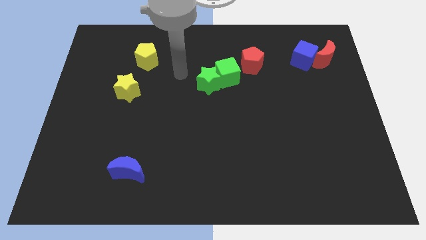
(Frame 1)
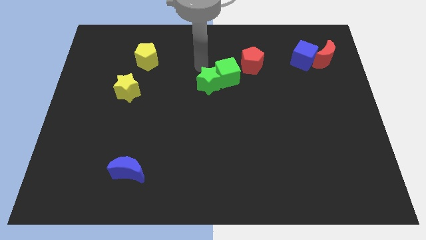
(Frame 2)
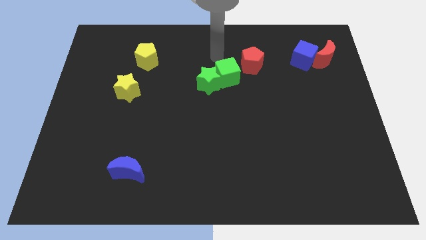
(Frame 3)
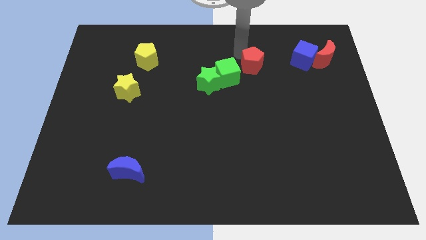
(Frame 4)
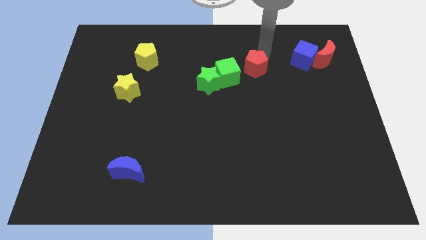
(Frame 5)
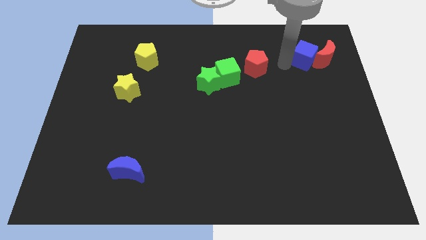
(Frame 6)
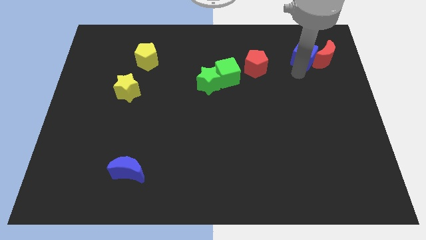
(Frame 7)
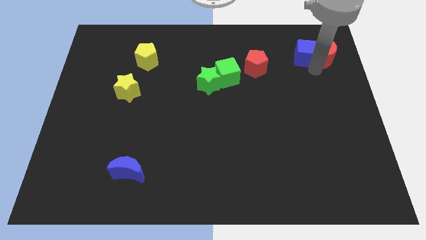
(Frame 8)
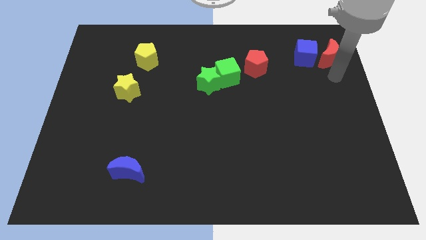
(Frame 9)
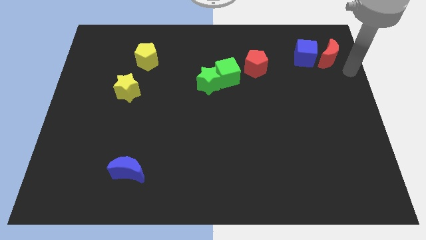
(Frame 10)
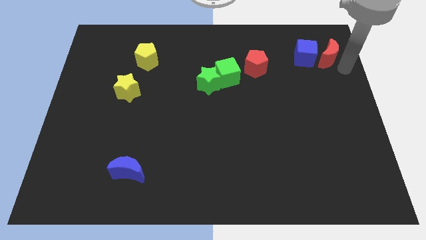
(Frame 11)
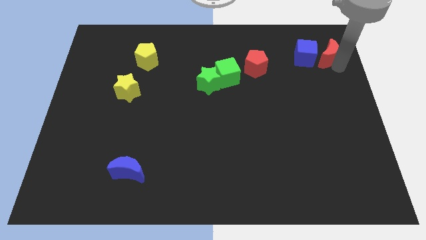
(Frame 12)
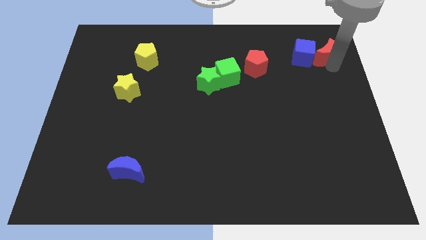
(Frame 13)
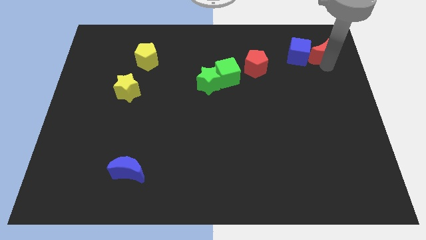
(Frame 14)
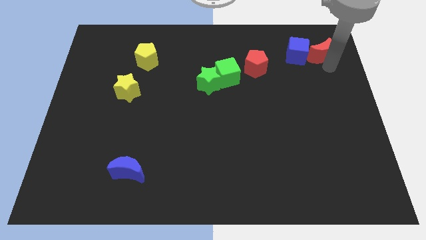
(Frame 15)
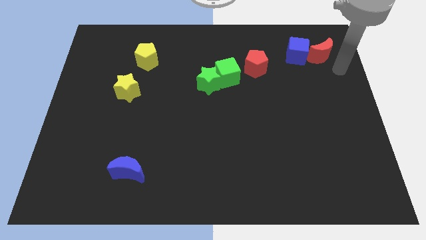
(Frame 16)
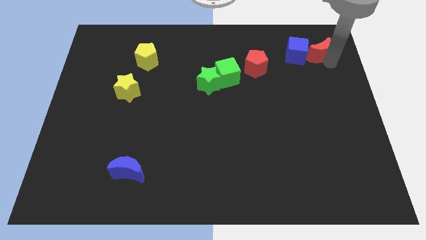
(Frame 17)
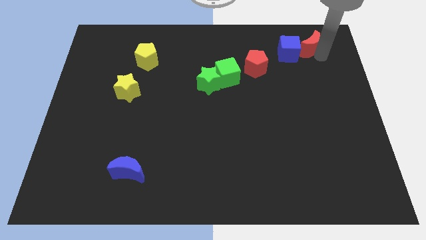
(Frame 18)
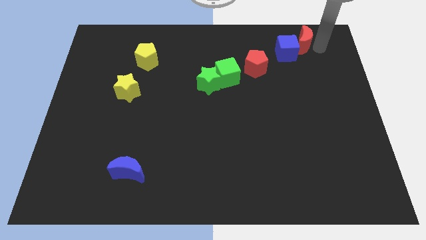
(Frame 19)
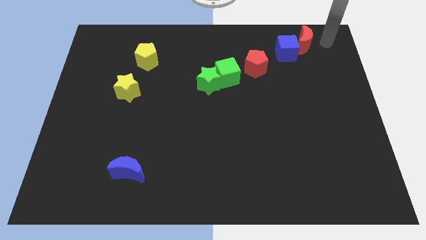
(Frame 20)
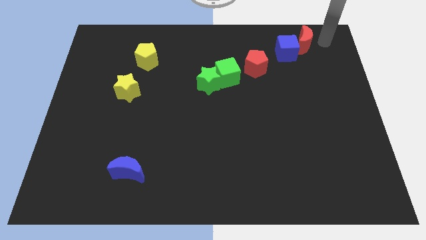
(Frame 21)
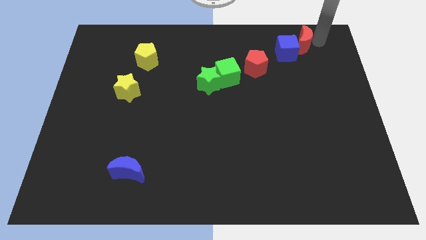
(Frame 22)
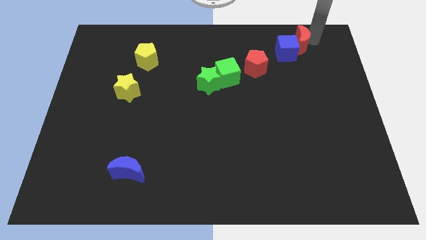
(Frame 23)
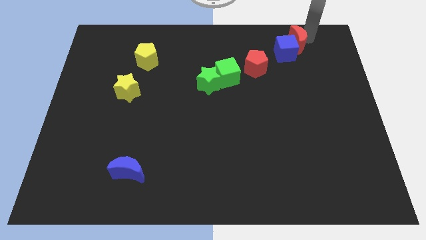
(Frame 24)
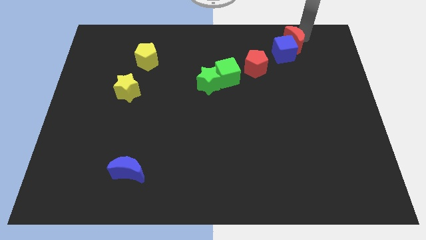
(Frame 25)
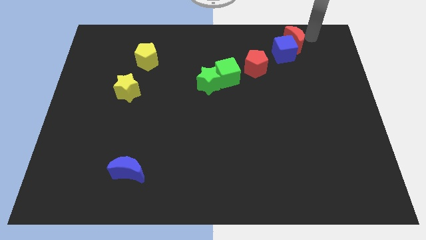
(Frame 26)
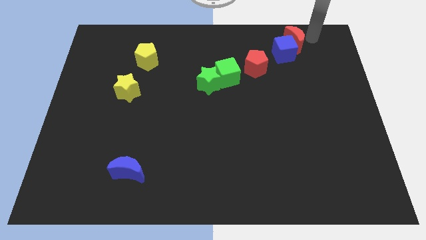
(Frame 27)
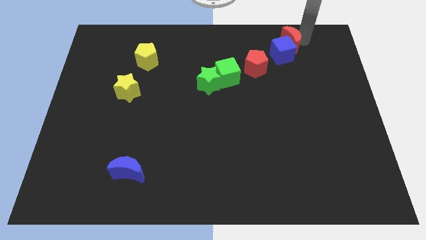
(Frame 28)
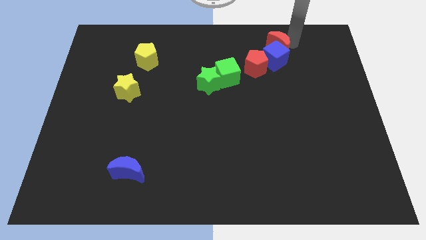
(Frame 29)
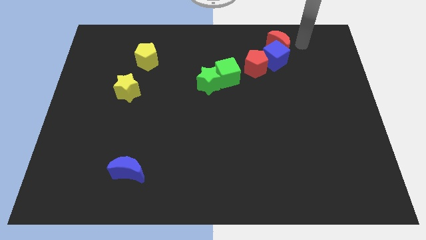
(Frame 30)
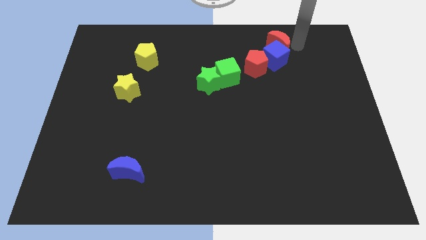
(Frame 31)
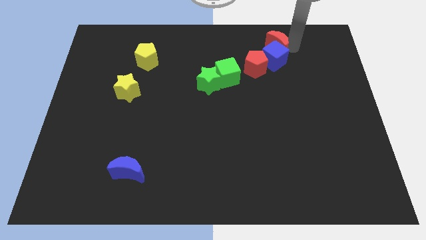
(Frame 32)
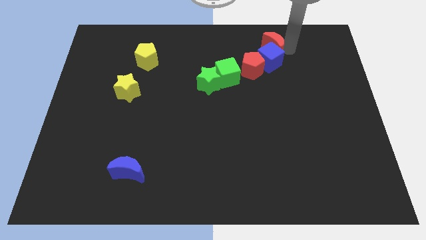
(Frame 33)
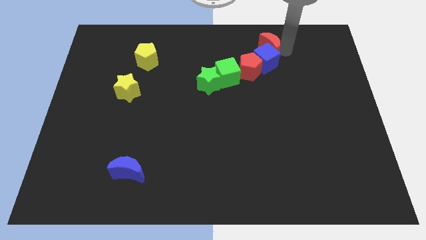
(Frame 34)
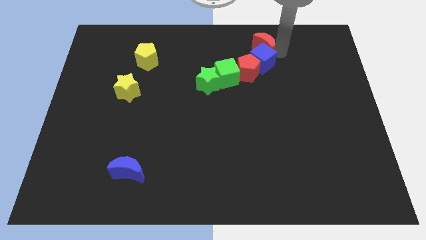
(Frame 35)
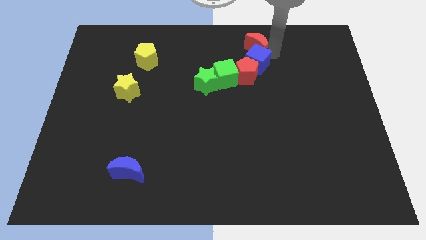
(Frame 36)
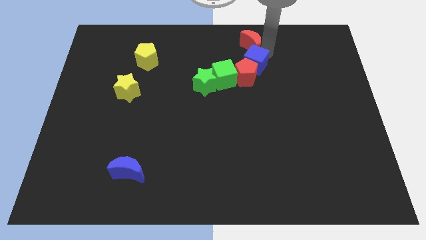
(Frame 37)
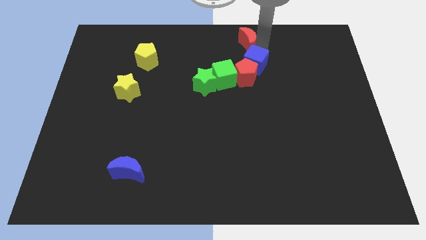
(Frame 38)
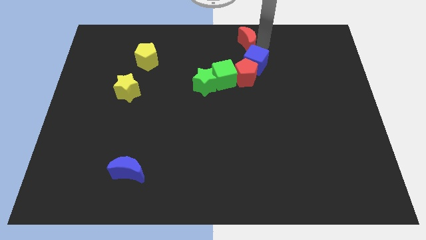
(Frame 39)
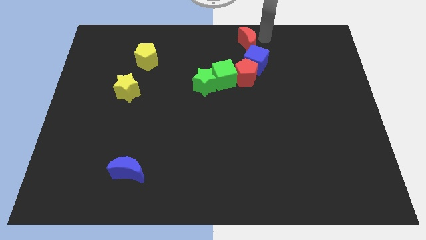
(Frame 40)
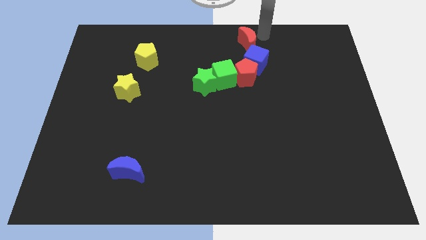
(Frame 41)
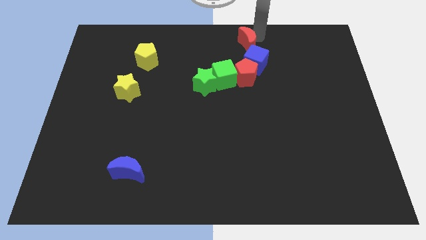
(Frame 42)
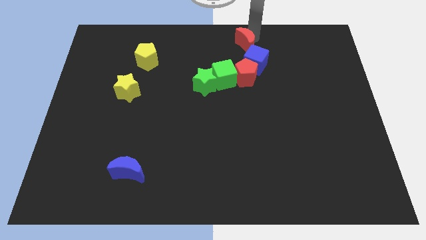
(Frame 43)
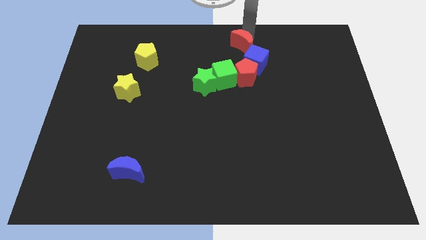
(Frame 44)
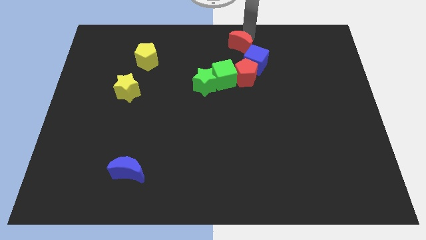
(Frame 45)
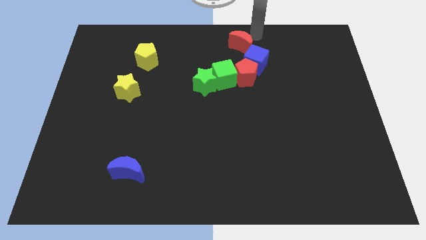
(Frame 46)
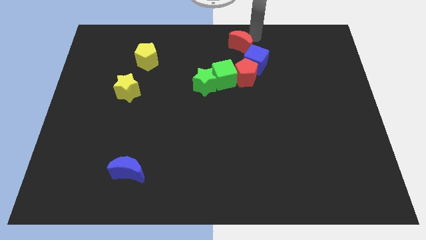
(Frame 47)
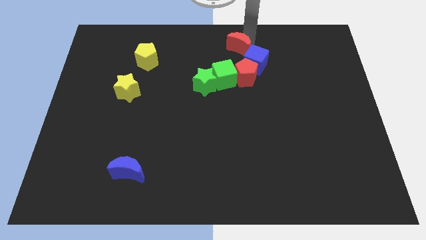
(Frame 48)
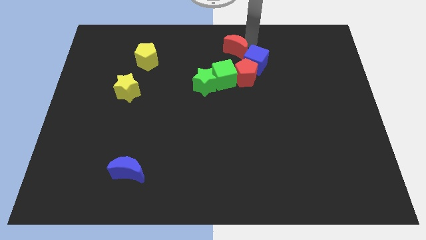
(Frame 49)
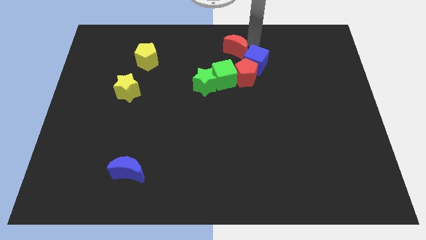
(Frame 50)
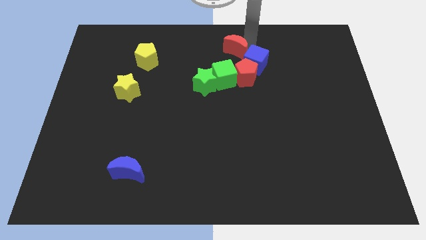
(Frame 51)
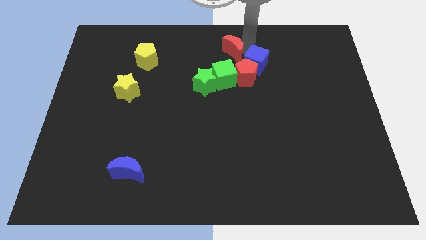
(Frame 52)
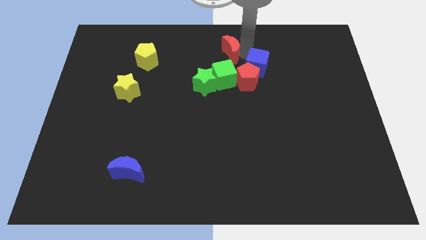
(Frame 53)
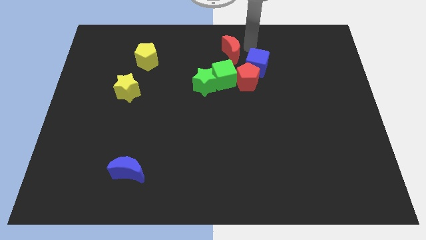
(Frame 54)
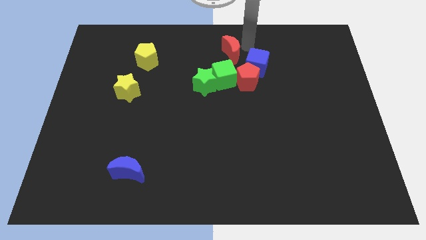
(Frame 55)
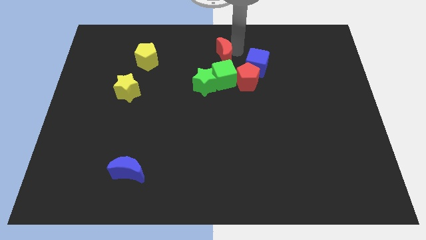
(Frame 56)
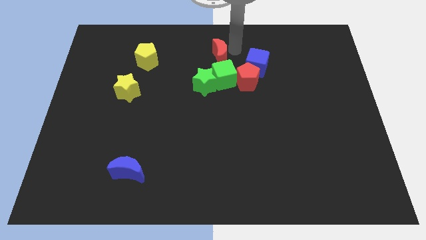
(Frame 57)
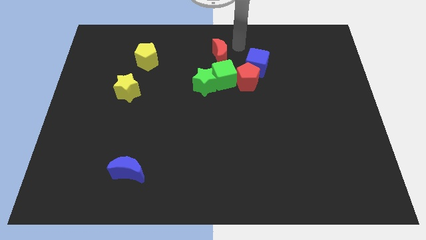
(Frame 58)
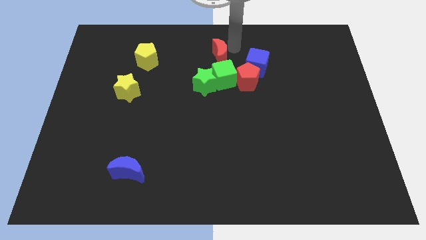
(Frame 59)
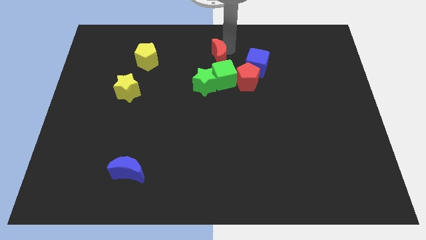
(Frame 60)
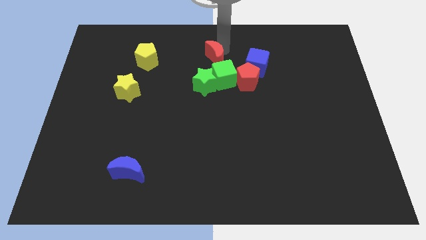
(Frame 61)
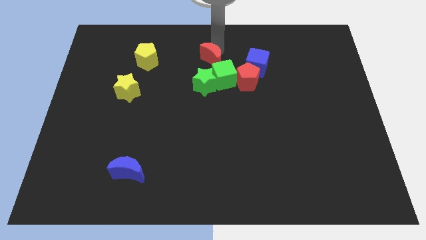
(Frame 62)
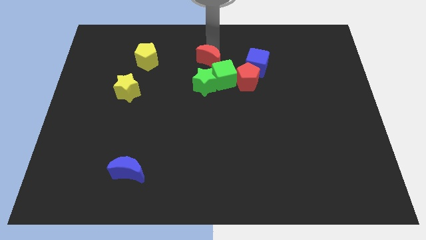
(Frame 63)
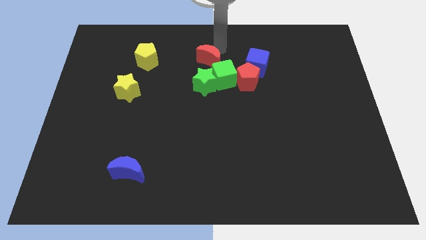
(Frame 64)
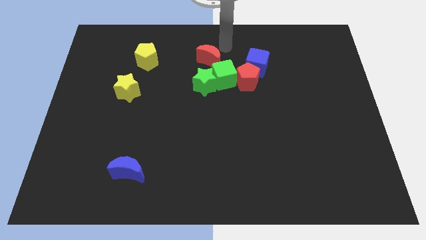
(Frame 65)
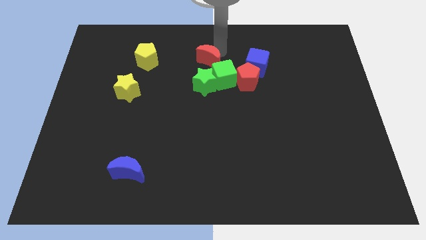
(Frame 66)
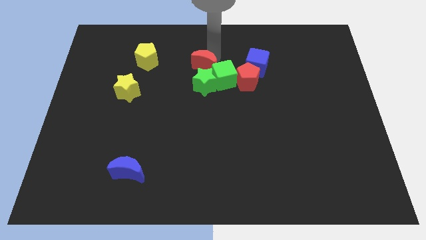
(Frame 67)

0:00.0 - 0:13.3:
move the red moon to the left side of the green cube

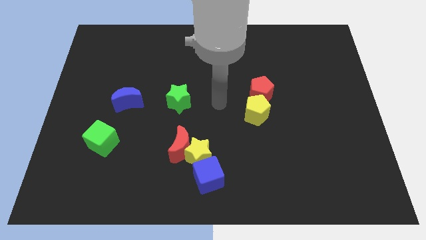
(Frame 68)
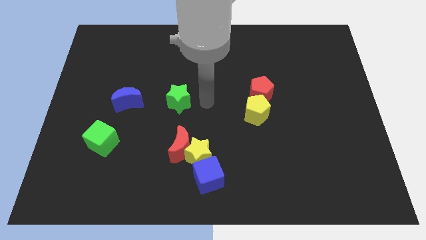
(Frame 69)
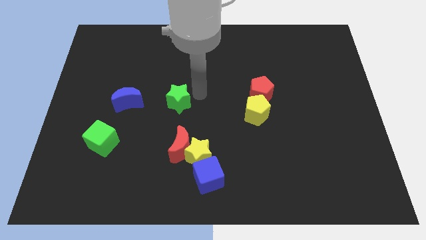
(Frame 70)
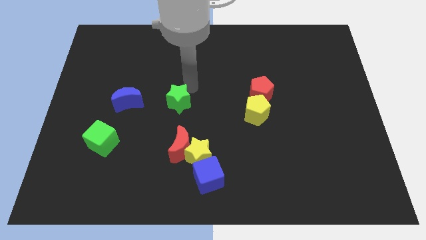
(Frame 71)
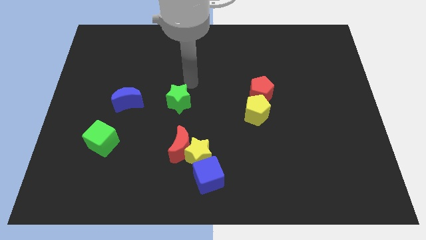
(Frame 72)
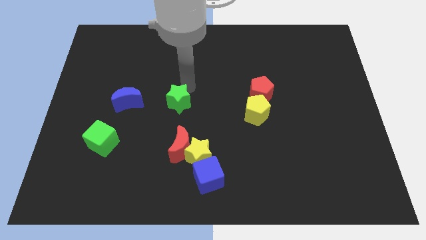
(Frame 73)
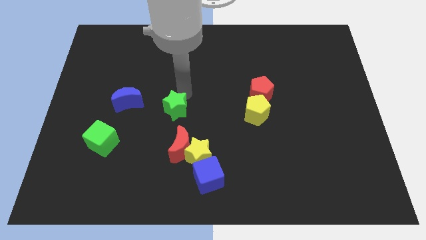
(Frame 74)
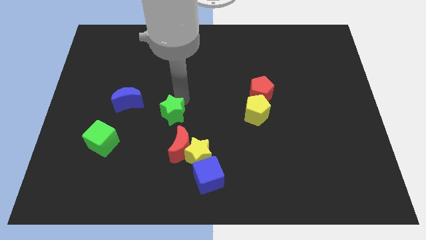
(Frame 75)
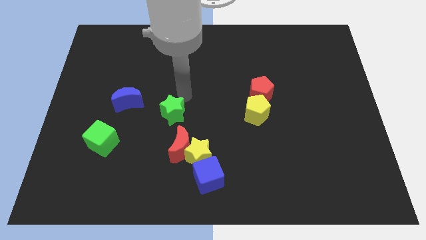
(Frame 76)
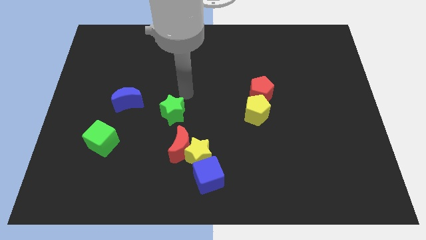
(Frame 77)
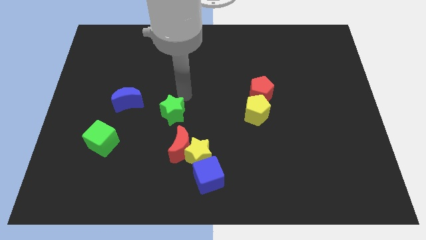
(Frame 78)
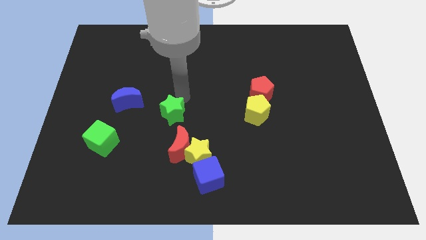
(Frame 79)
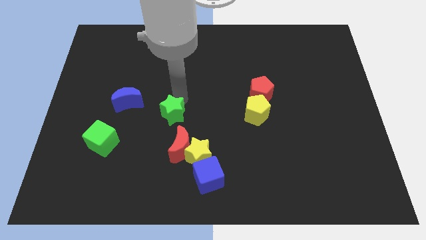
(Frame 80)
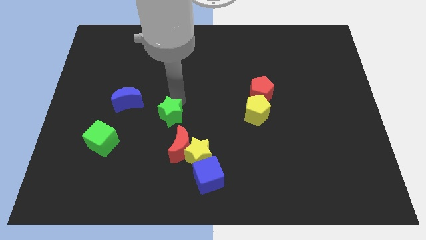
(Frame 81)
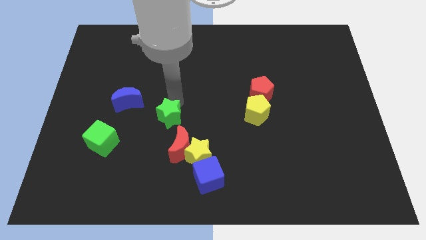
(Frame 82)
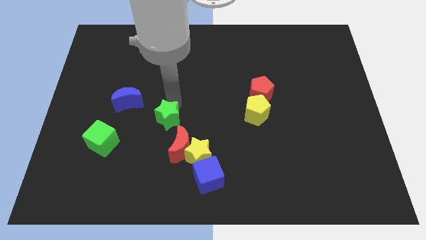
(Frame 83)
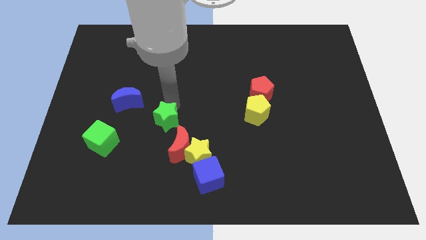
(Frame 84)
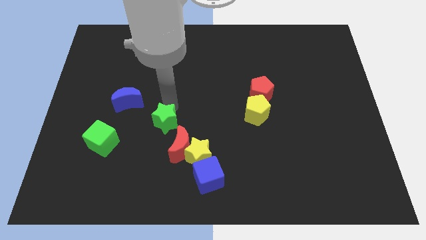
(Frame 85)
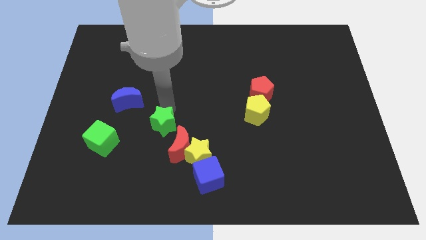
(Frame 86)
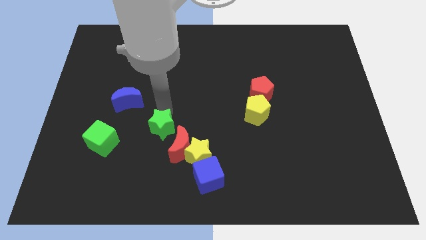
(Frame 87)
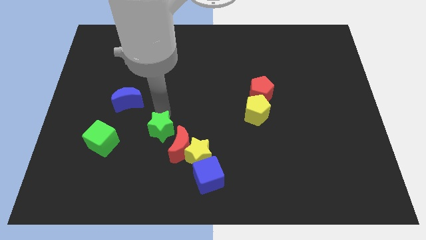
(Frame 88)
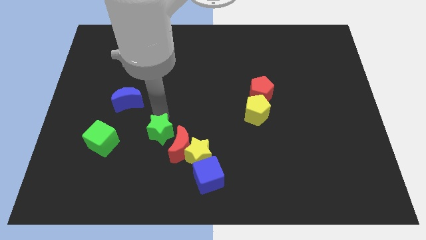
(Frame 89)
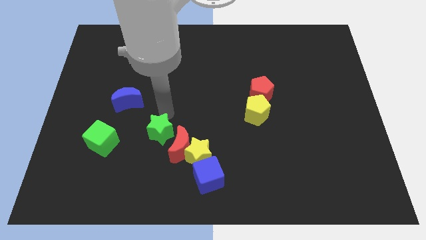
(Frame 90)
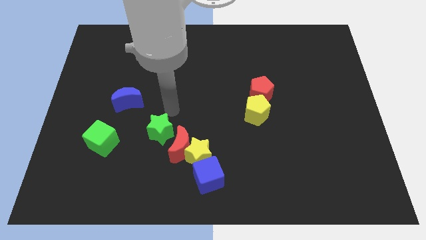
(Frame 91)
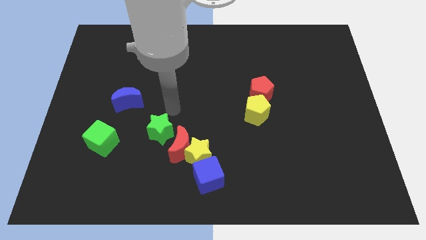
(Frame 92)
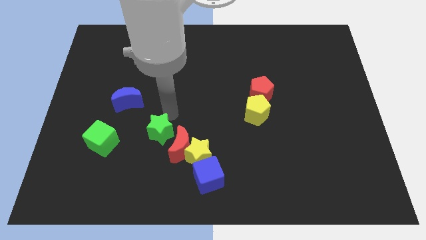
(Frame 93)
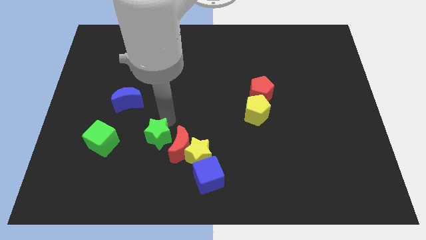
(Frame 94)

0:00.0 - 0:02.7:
slide the green star just left of the yellow star
